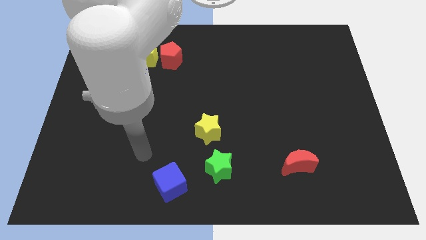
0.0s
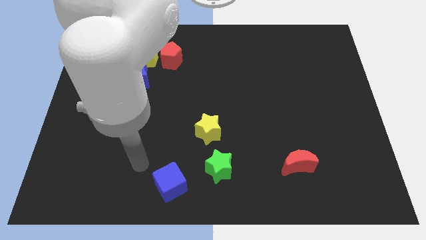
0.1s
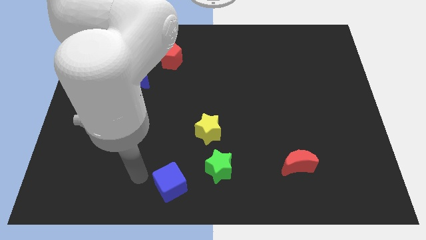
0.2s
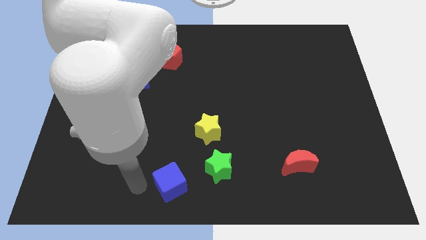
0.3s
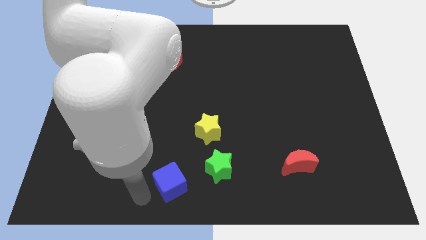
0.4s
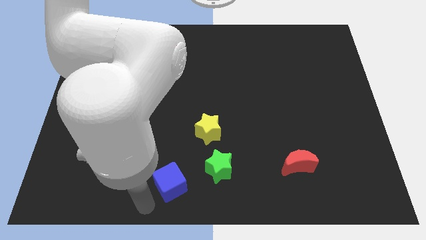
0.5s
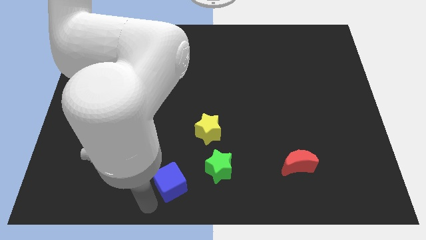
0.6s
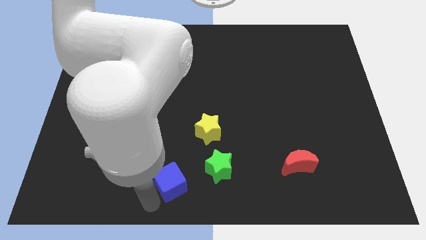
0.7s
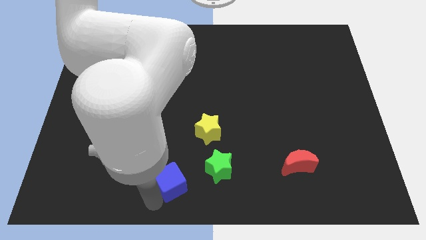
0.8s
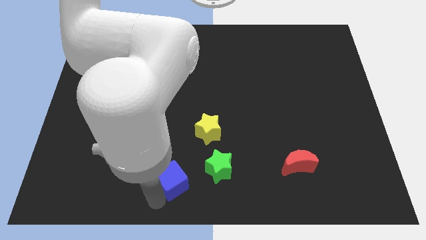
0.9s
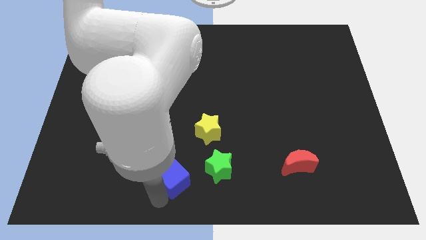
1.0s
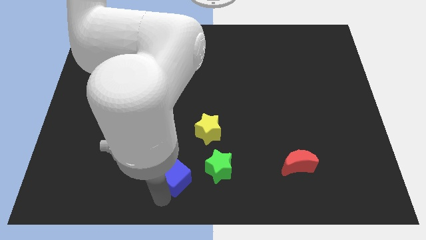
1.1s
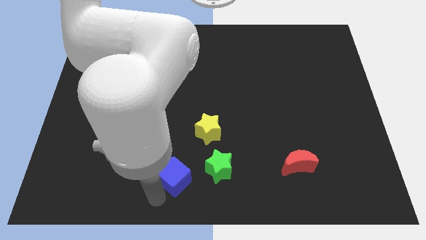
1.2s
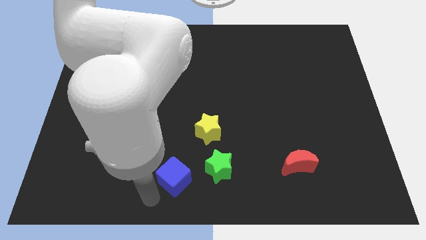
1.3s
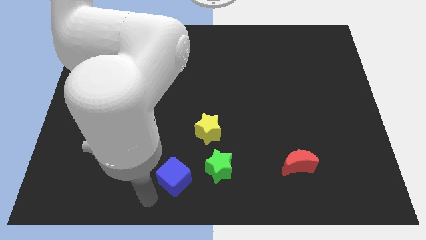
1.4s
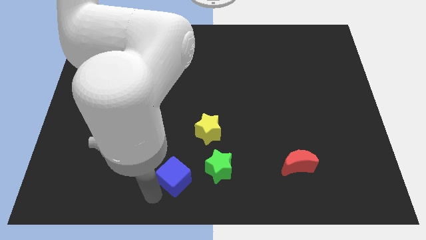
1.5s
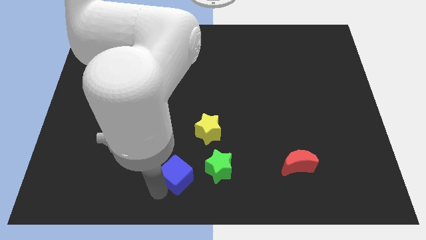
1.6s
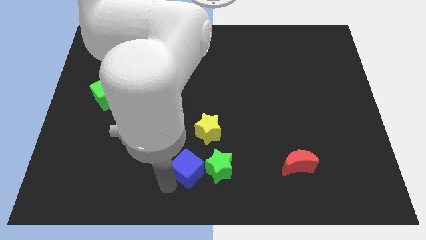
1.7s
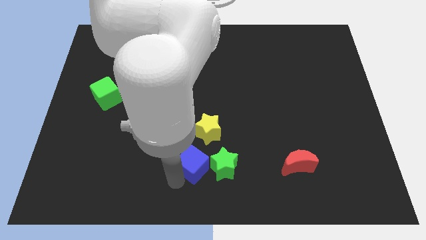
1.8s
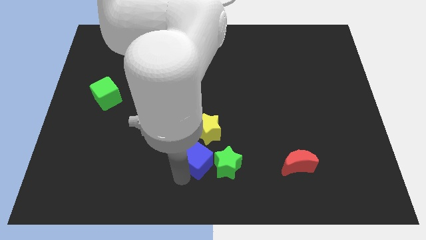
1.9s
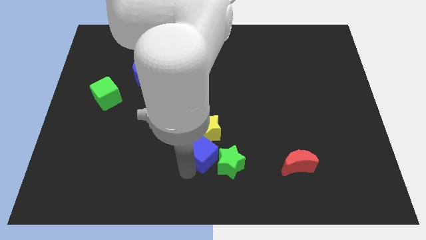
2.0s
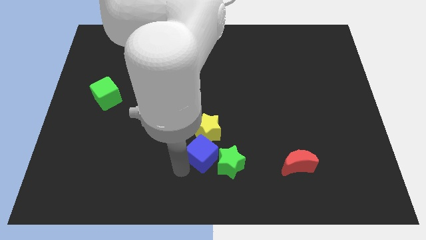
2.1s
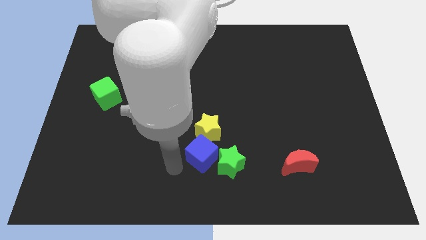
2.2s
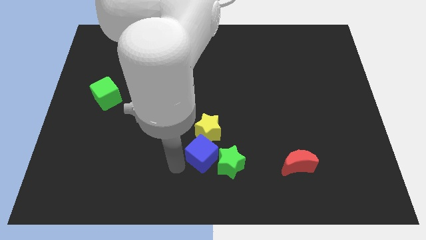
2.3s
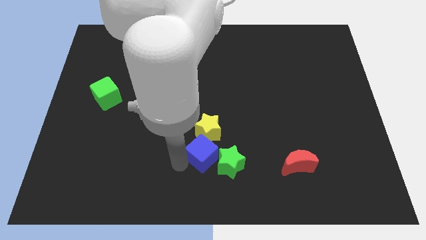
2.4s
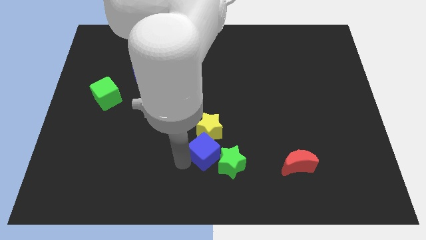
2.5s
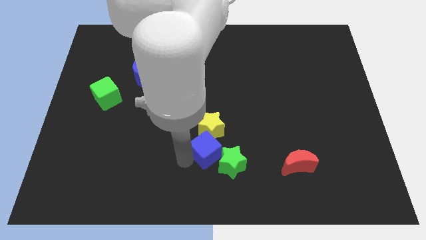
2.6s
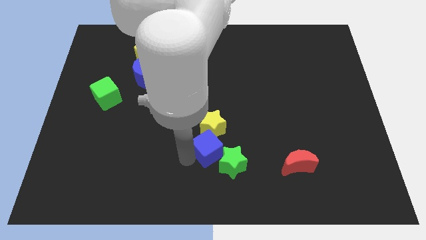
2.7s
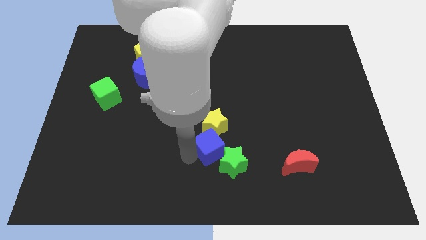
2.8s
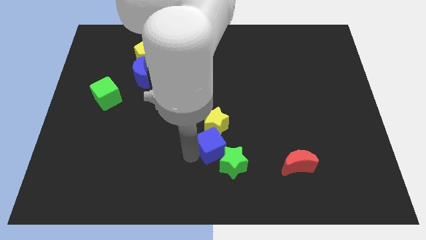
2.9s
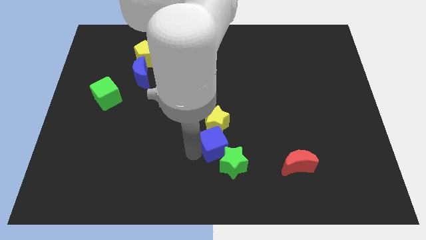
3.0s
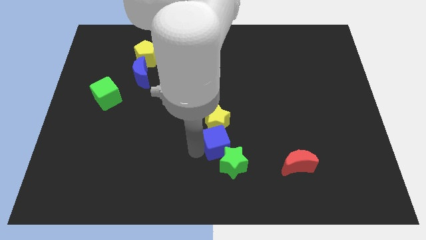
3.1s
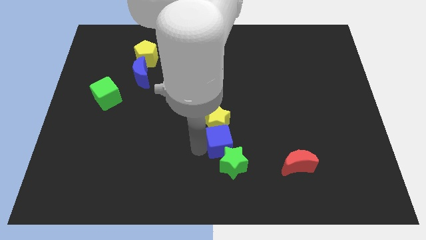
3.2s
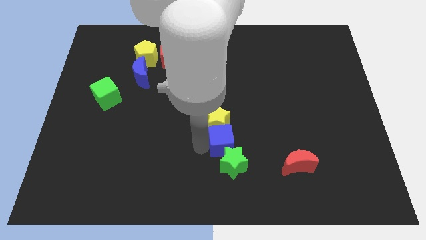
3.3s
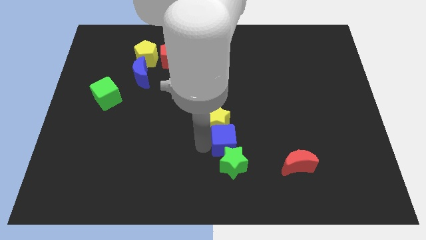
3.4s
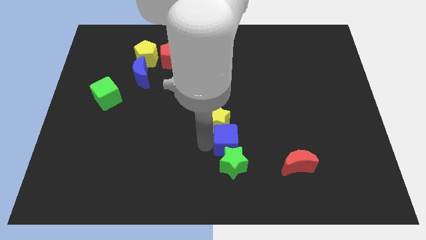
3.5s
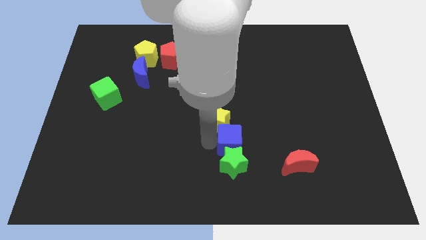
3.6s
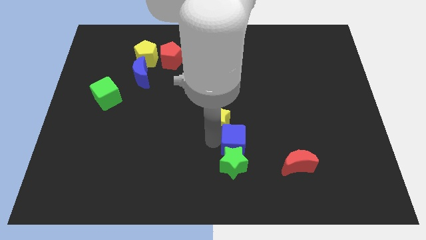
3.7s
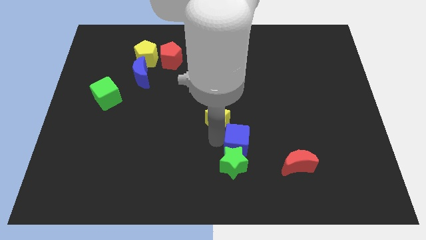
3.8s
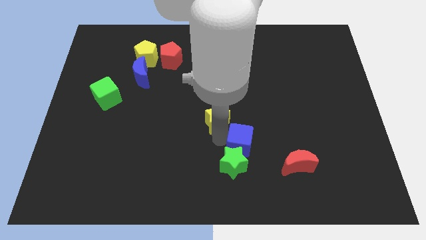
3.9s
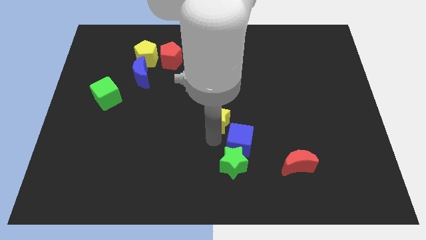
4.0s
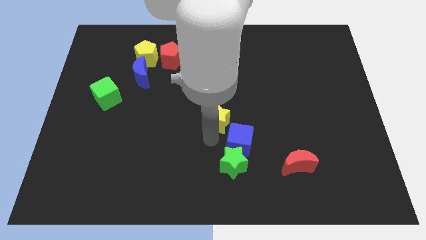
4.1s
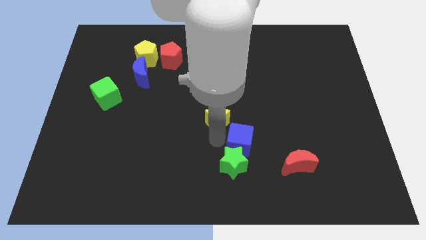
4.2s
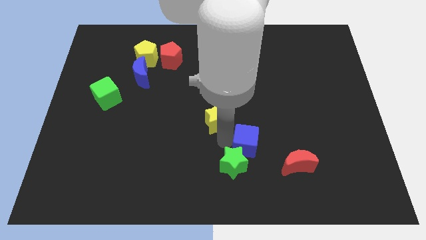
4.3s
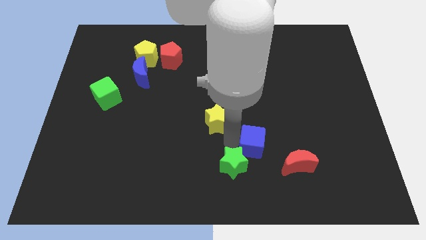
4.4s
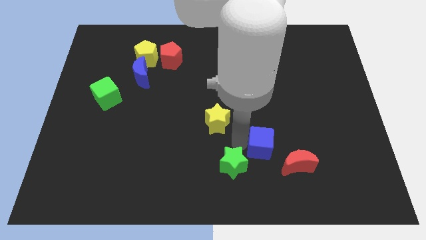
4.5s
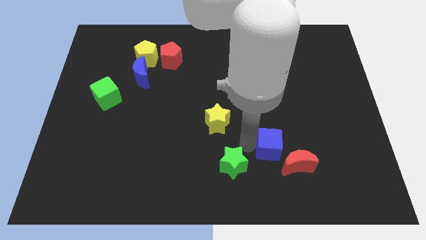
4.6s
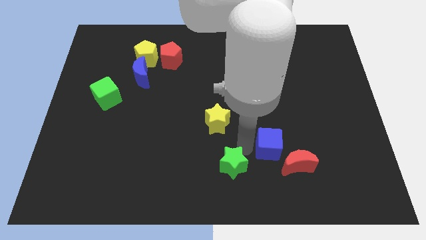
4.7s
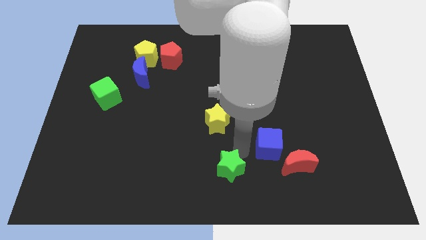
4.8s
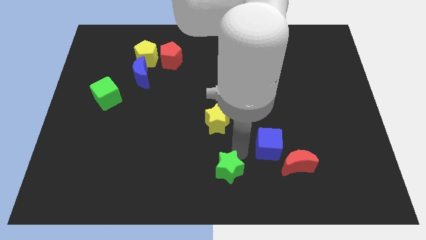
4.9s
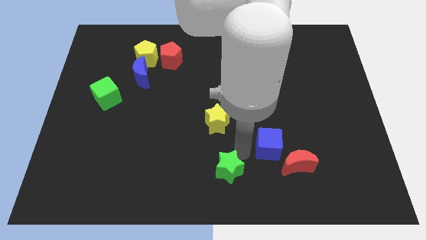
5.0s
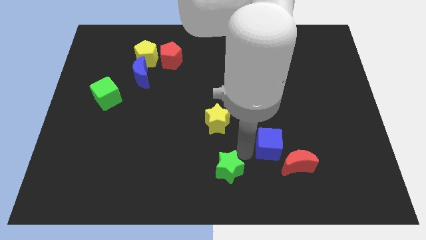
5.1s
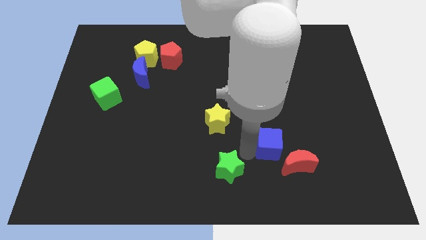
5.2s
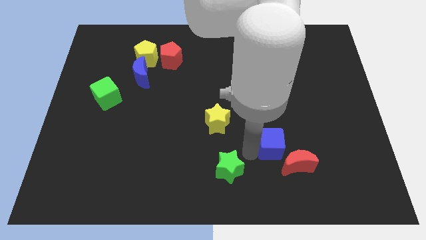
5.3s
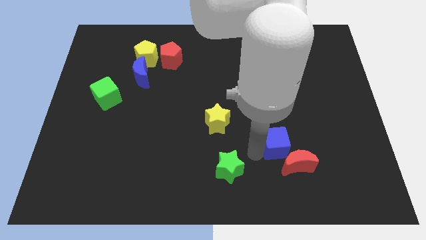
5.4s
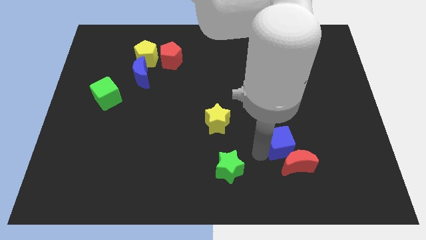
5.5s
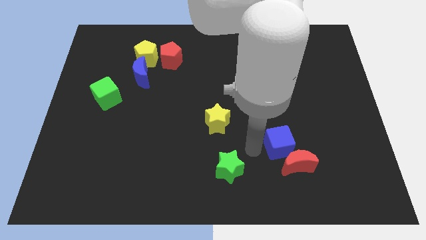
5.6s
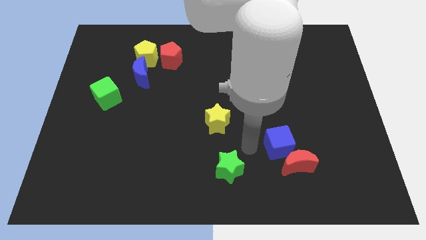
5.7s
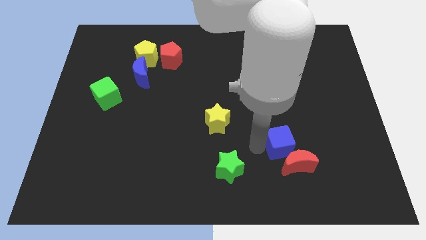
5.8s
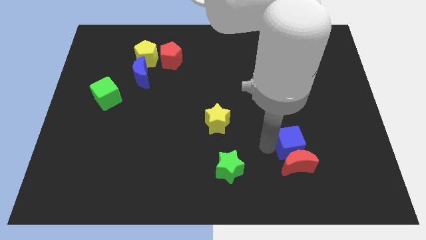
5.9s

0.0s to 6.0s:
put the blue cube to the top right of the red moon
